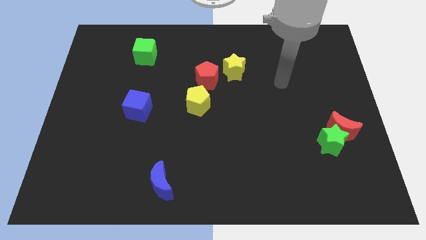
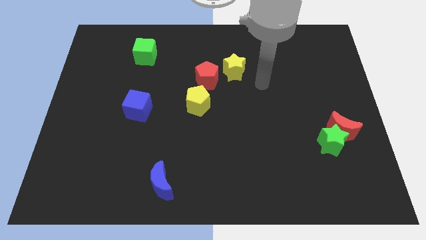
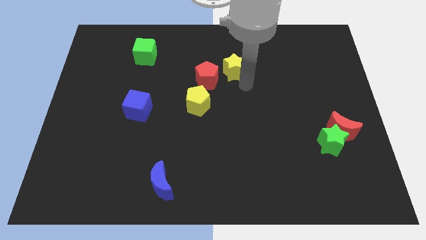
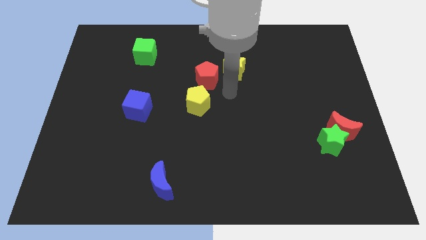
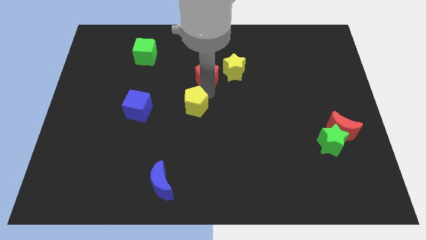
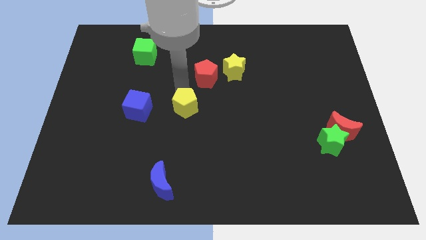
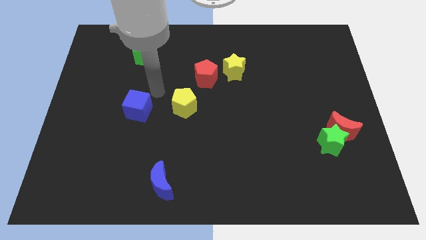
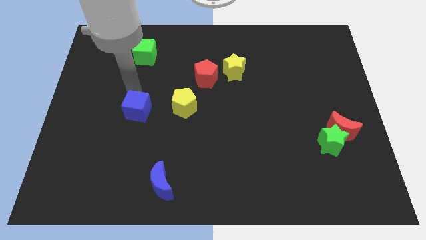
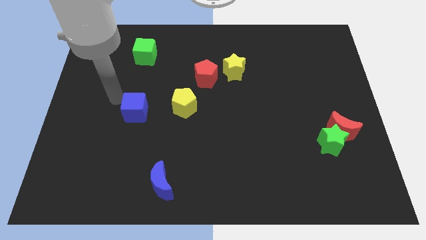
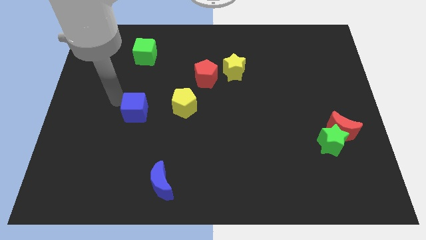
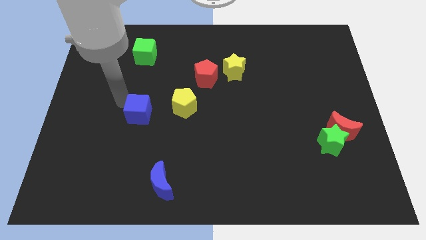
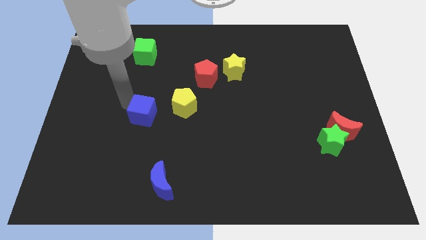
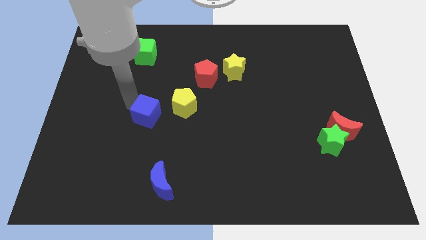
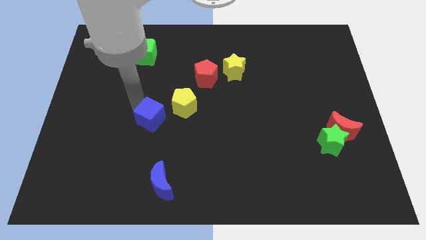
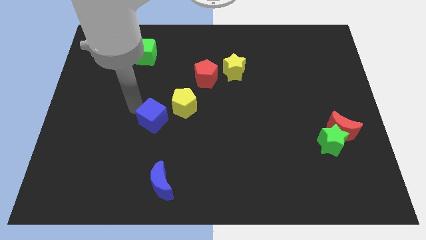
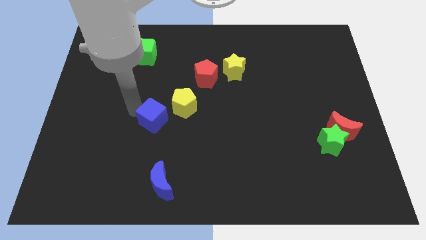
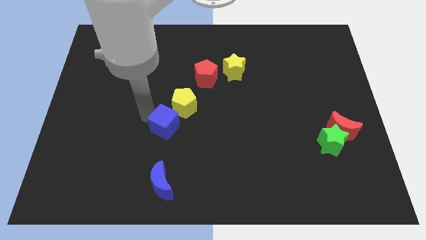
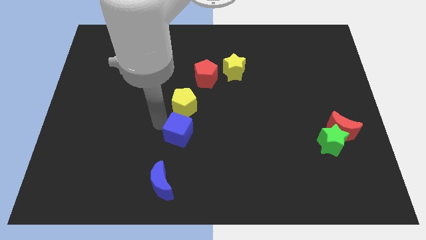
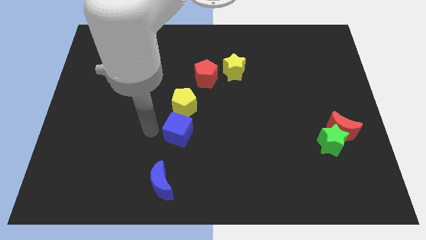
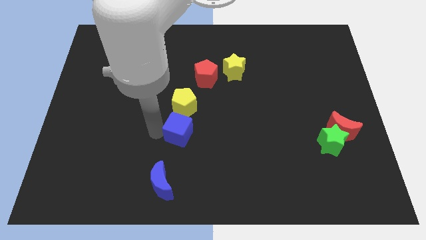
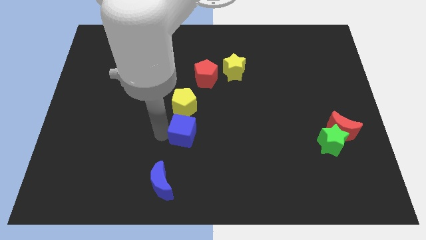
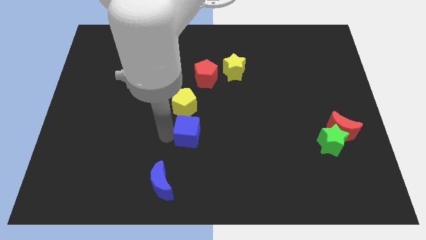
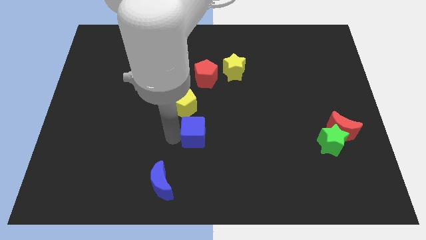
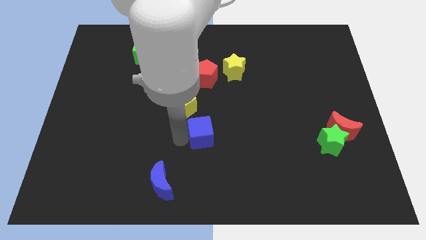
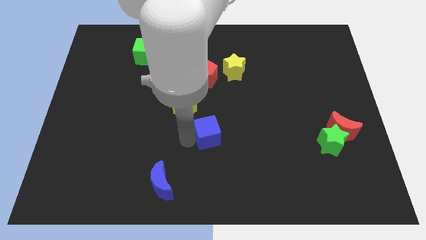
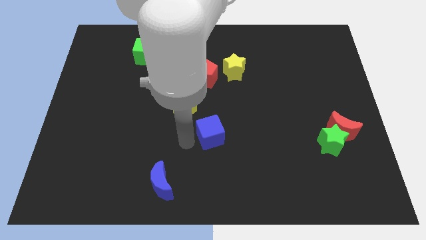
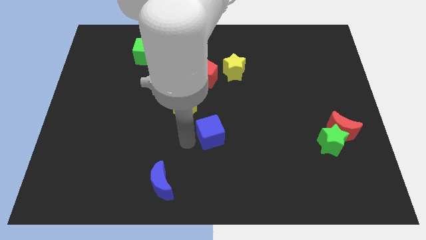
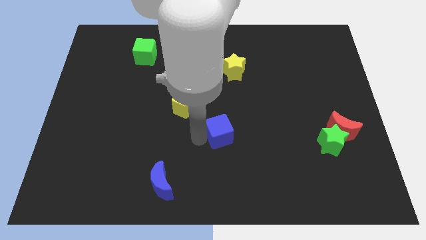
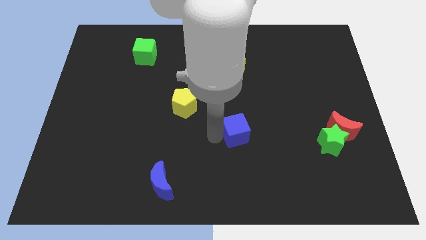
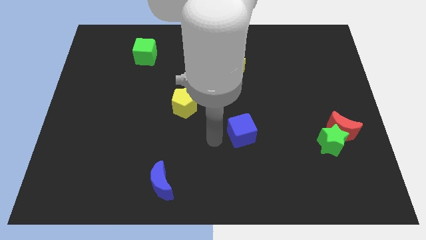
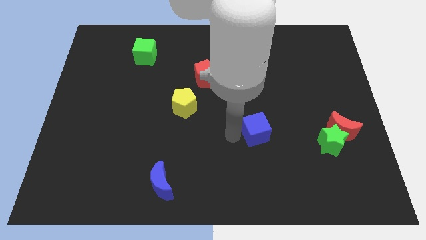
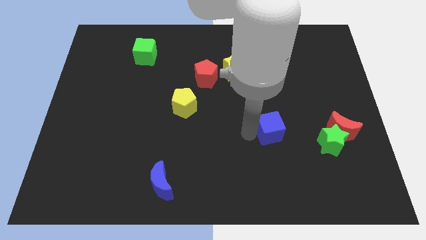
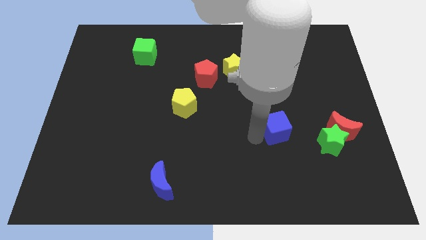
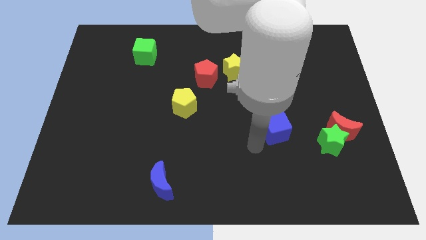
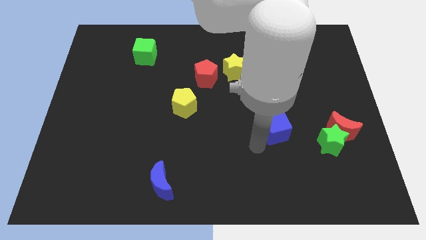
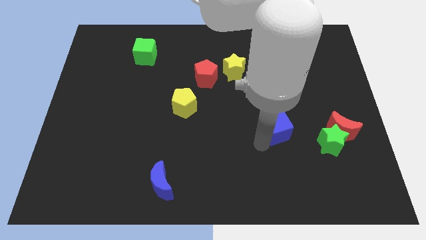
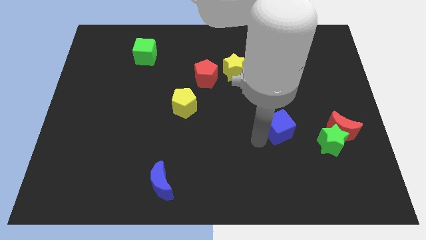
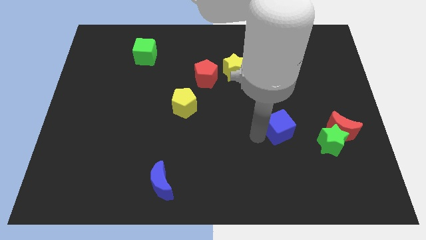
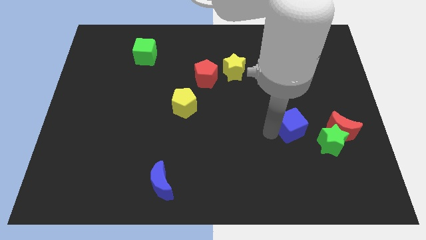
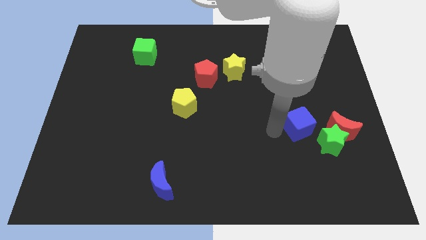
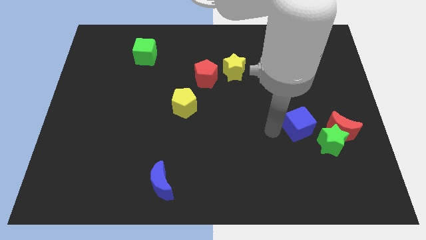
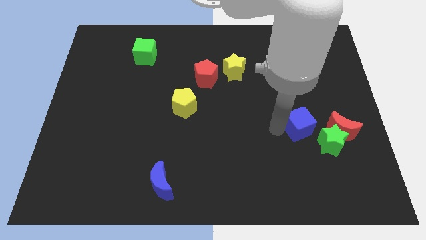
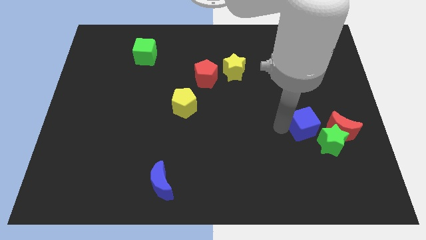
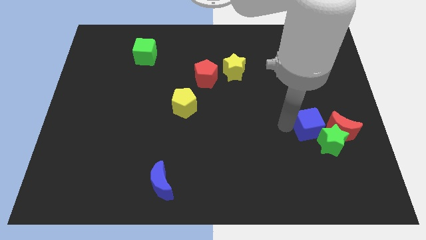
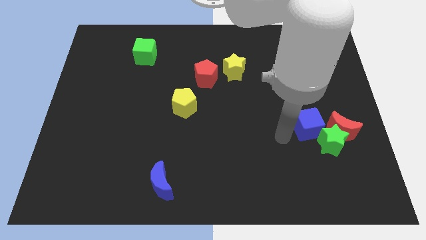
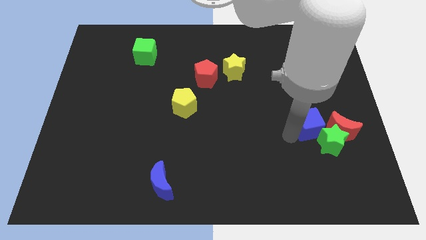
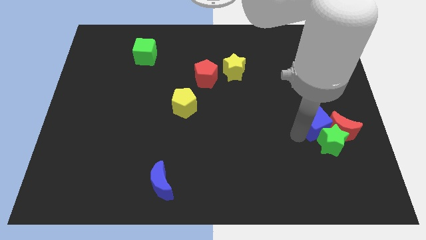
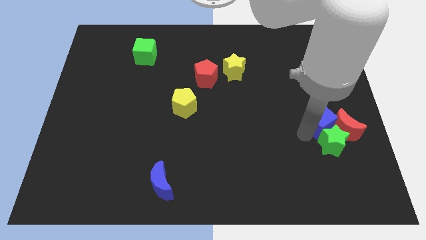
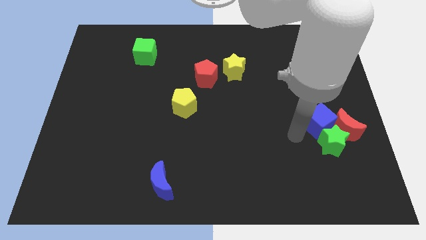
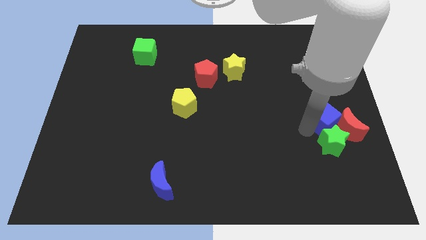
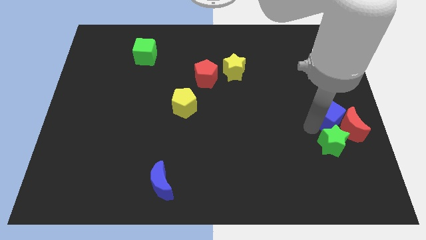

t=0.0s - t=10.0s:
move the blue cube to the center right

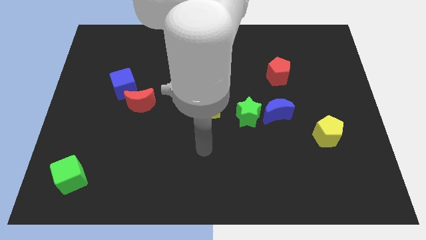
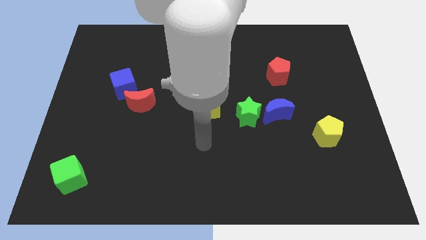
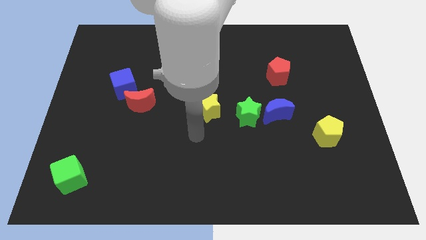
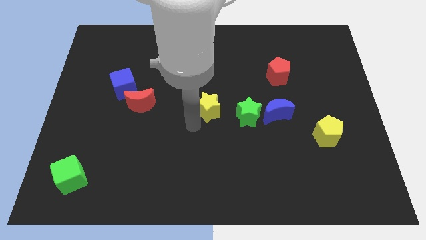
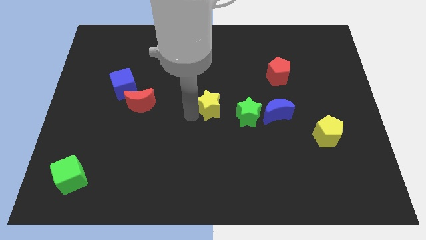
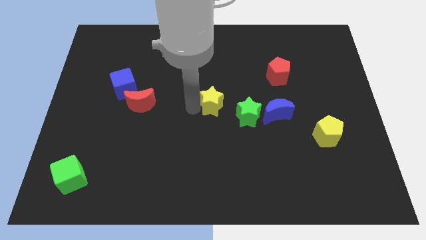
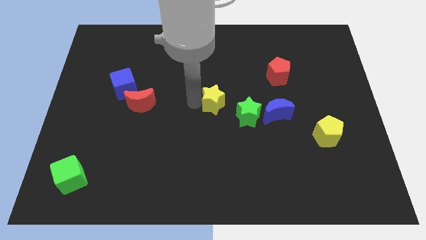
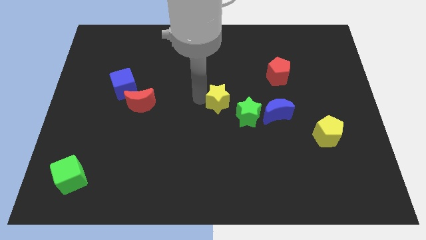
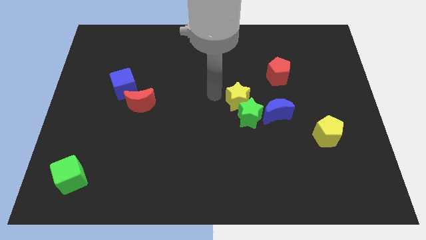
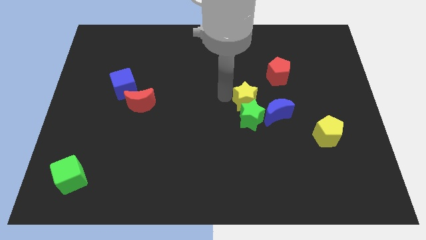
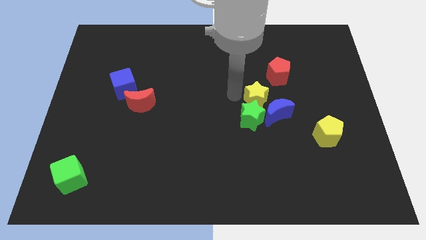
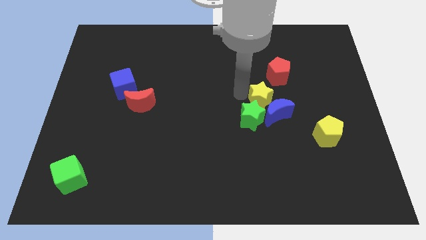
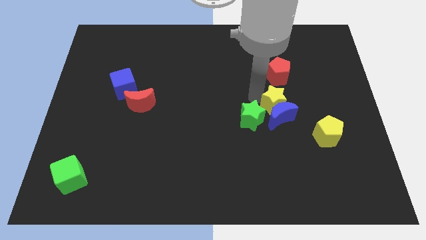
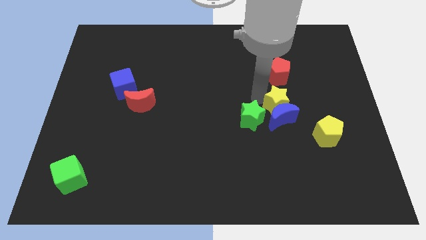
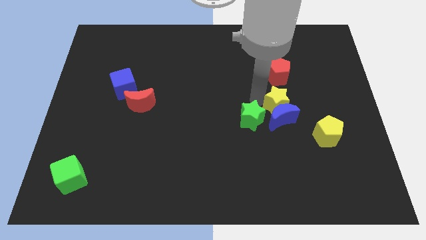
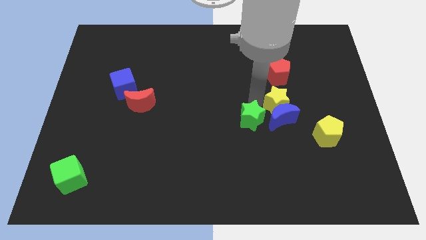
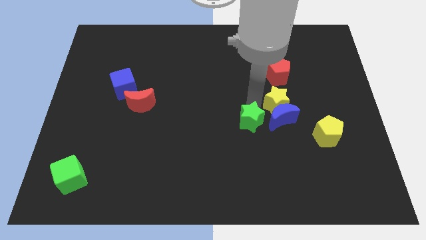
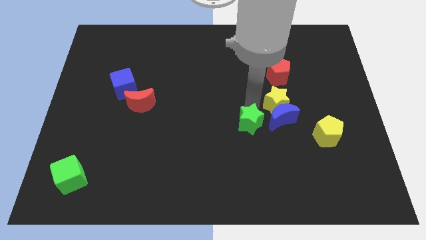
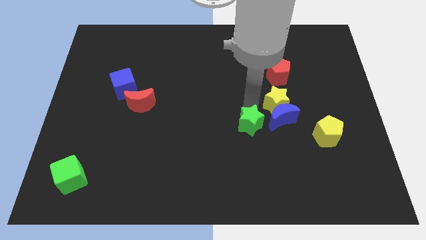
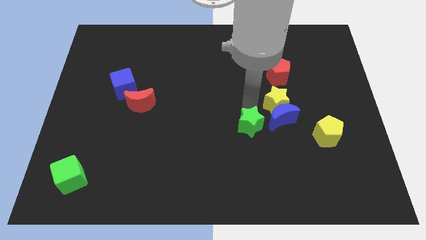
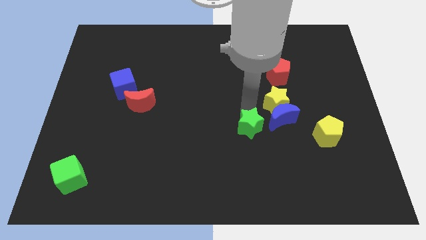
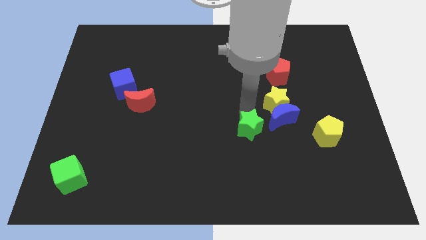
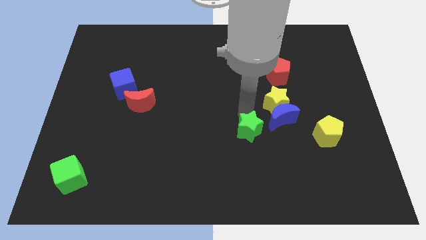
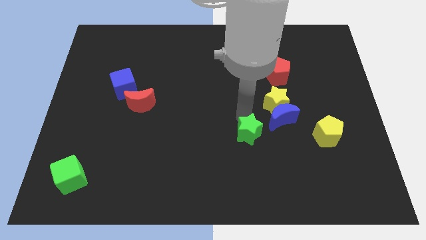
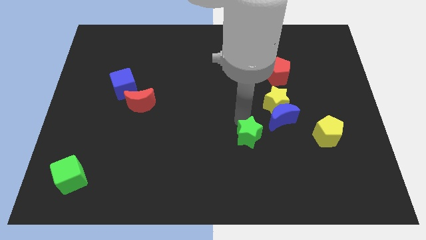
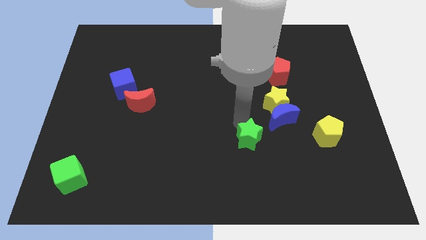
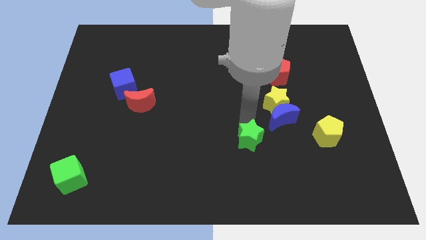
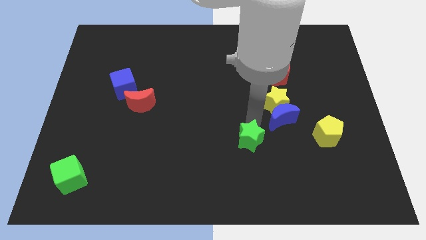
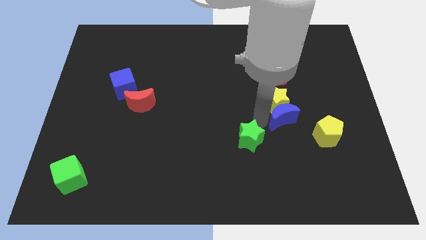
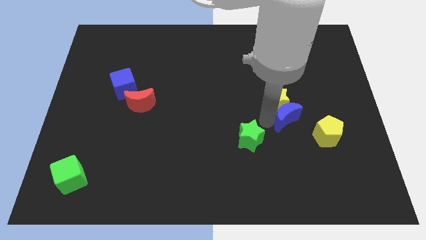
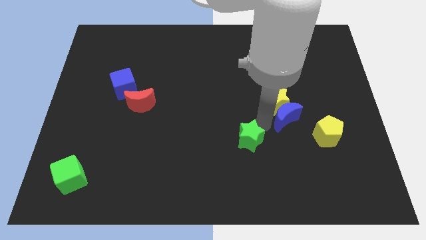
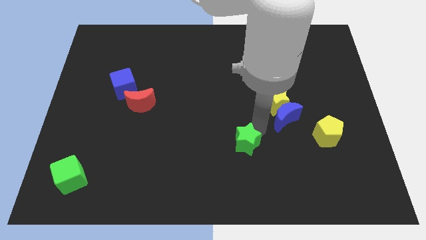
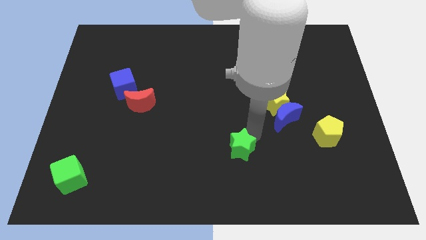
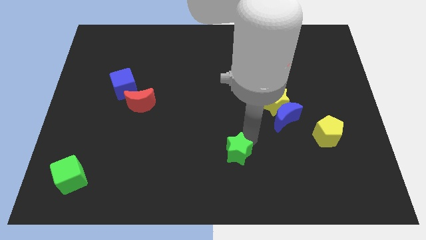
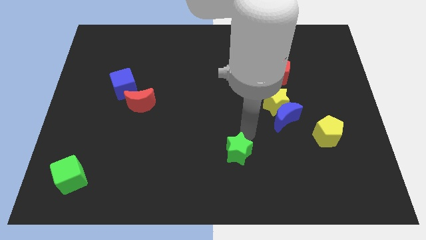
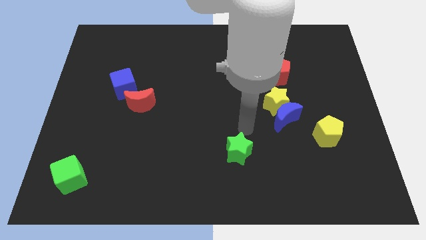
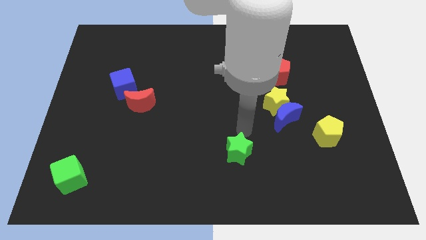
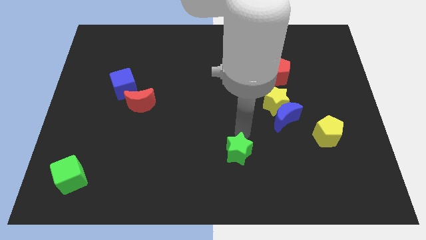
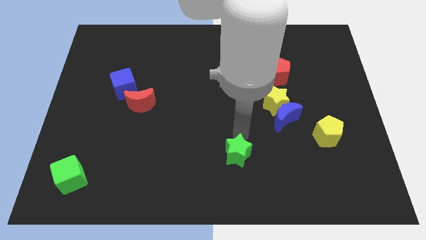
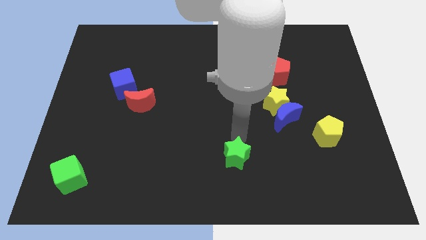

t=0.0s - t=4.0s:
put the green star to the bottom side
